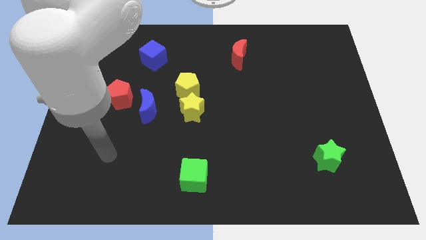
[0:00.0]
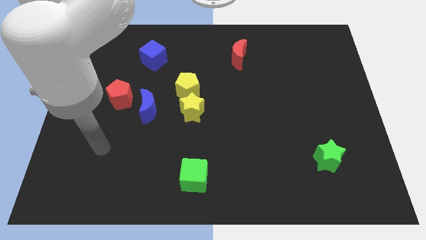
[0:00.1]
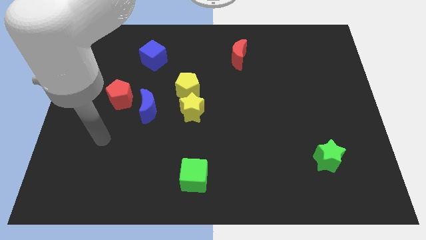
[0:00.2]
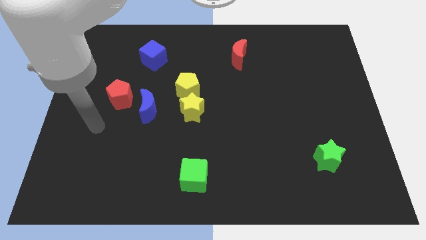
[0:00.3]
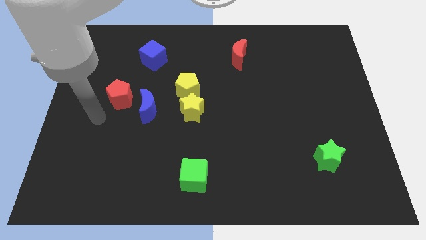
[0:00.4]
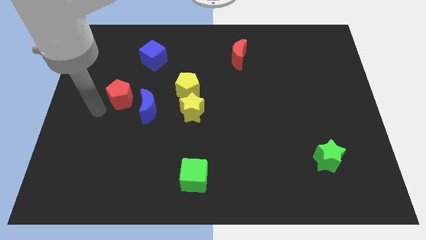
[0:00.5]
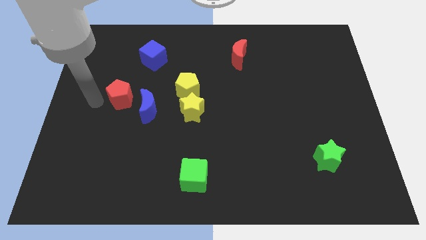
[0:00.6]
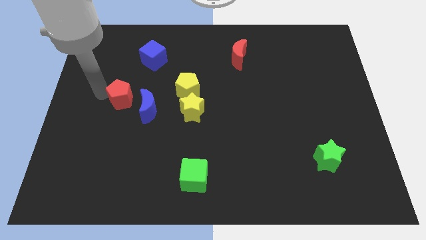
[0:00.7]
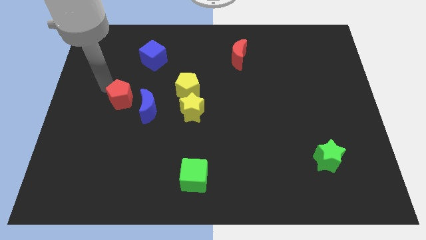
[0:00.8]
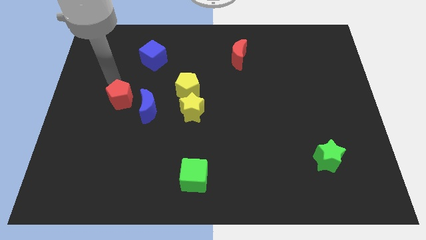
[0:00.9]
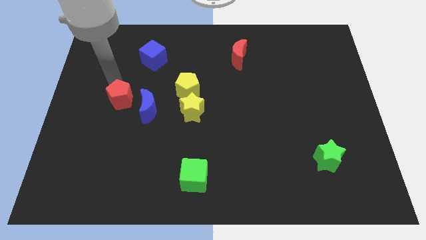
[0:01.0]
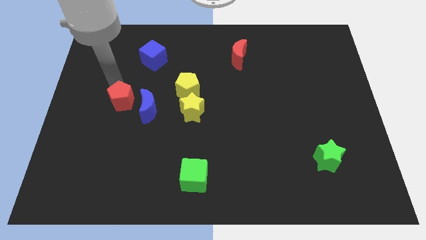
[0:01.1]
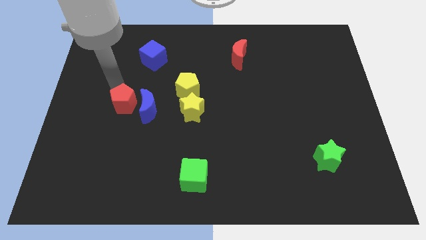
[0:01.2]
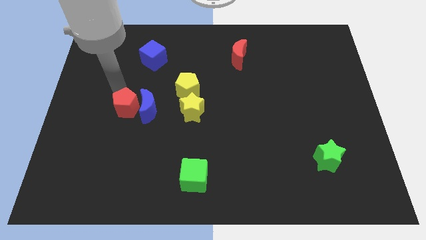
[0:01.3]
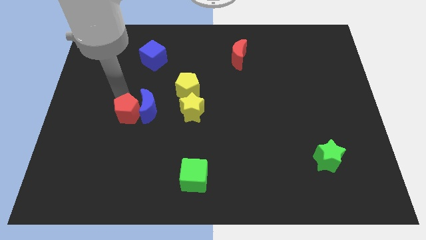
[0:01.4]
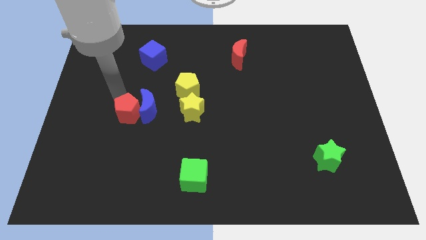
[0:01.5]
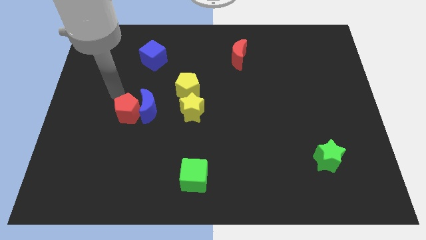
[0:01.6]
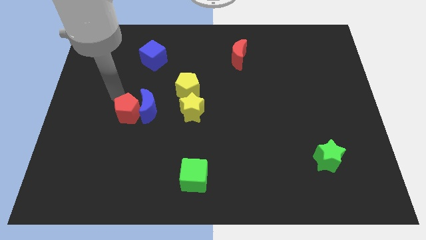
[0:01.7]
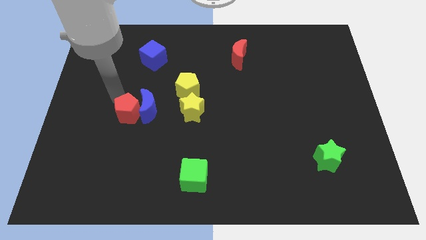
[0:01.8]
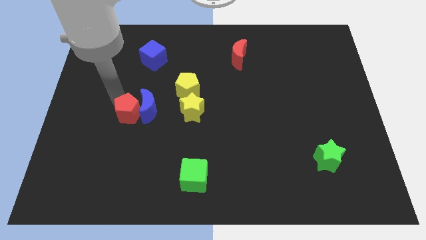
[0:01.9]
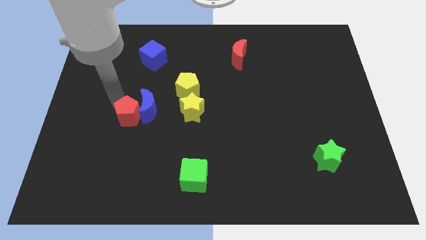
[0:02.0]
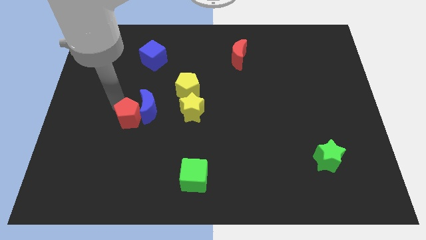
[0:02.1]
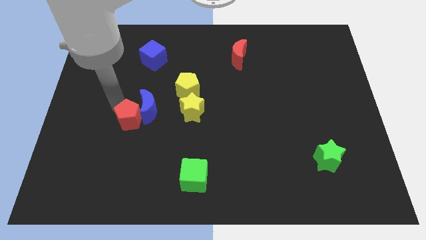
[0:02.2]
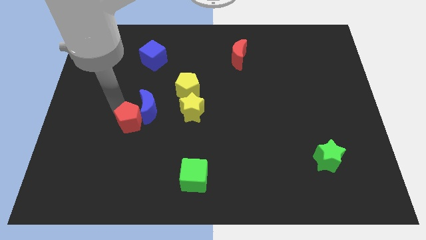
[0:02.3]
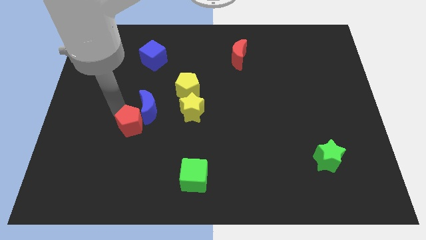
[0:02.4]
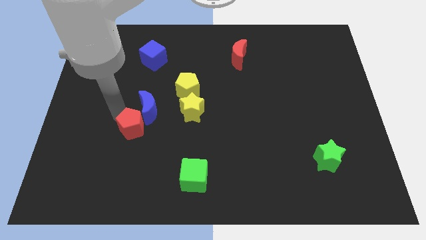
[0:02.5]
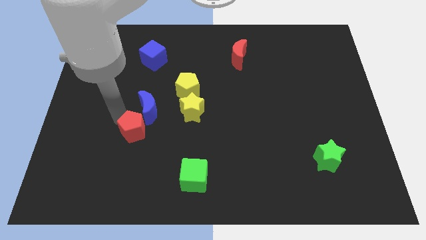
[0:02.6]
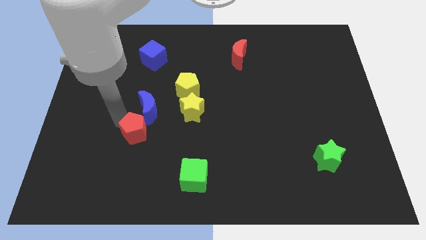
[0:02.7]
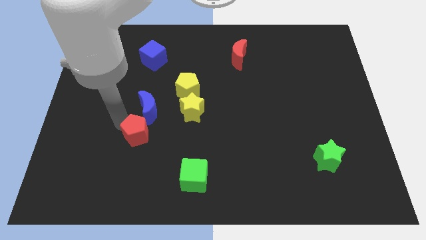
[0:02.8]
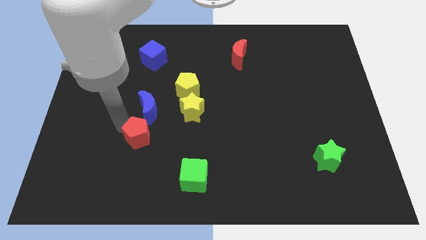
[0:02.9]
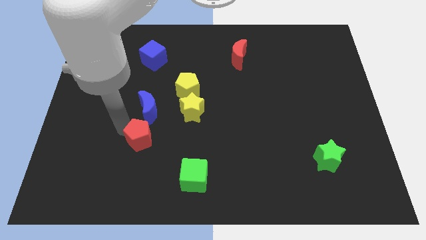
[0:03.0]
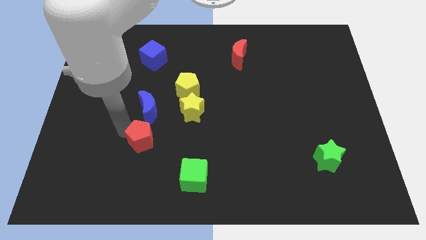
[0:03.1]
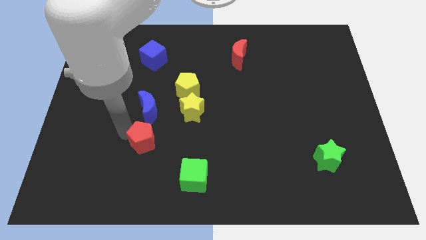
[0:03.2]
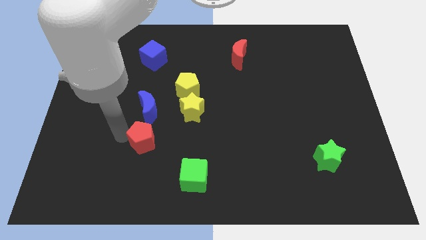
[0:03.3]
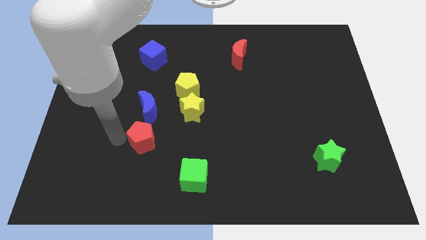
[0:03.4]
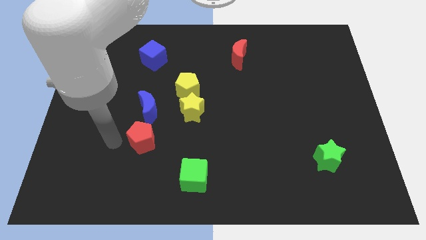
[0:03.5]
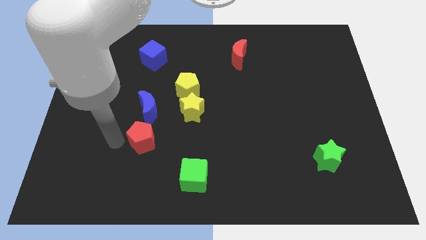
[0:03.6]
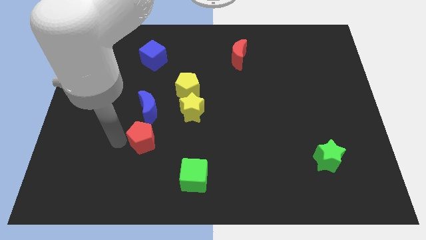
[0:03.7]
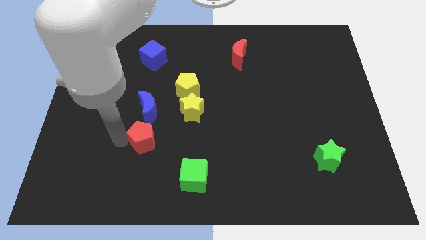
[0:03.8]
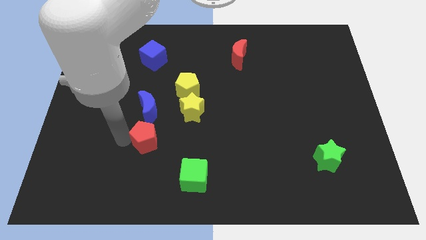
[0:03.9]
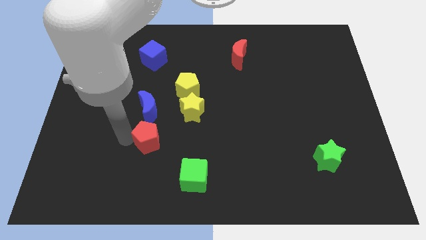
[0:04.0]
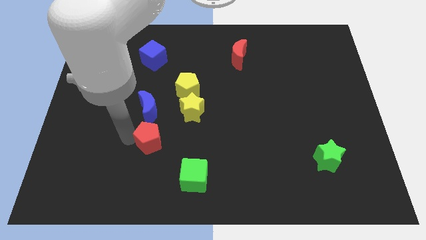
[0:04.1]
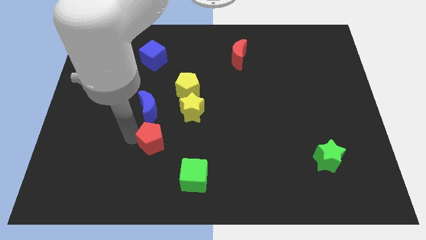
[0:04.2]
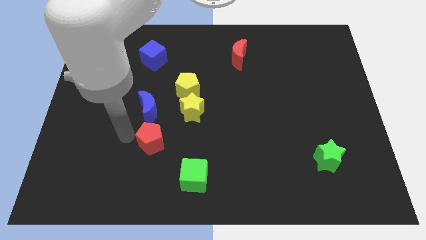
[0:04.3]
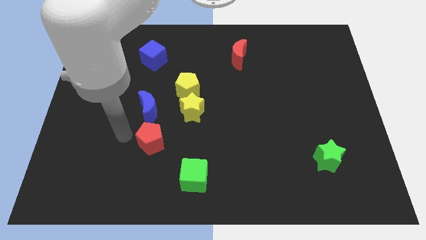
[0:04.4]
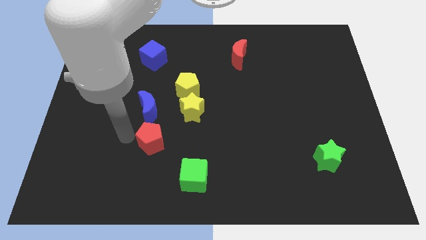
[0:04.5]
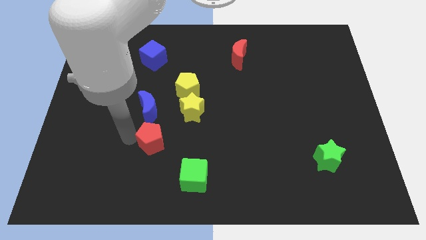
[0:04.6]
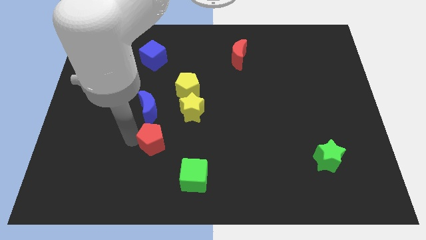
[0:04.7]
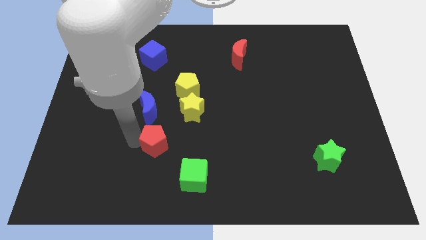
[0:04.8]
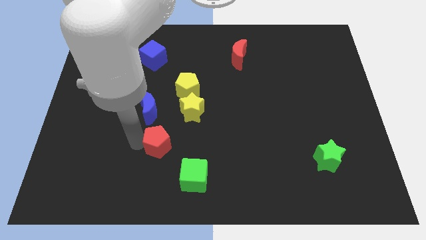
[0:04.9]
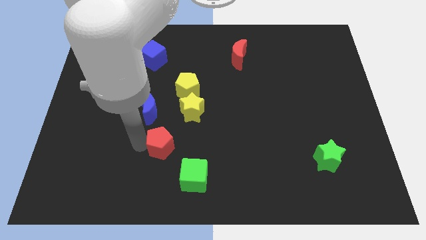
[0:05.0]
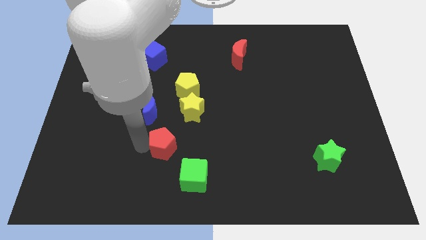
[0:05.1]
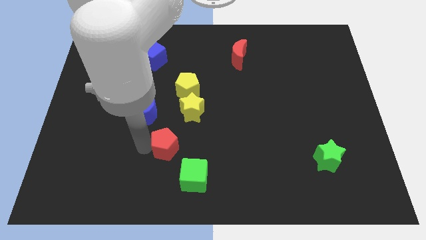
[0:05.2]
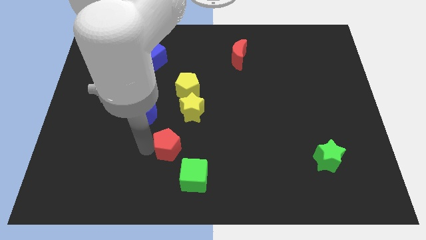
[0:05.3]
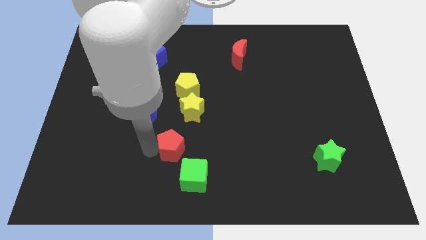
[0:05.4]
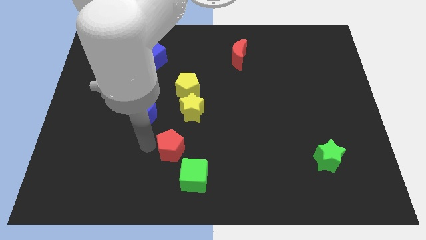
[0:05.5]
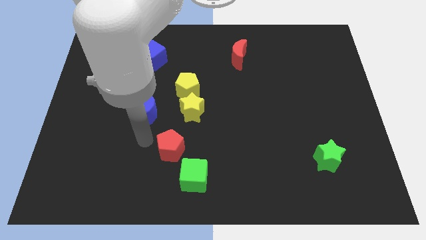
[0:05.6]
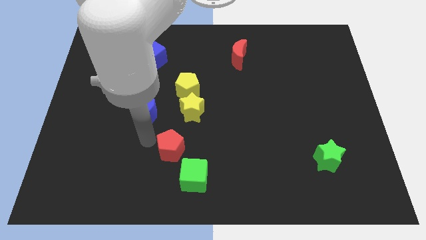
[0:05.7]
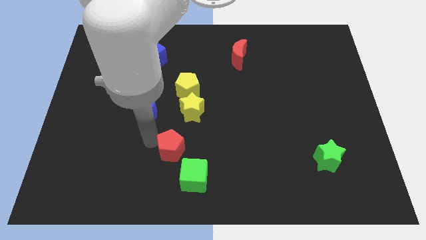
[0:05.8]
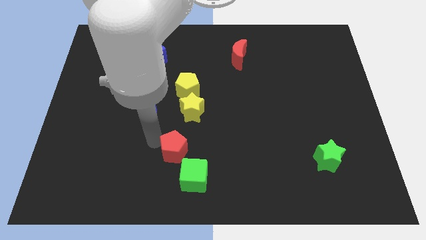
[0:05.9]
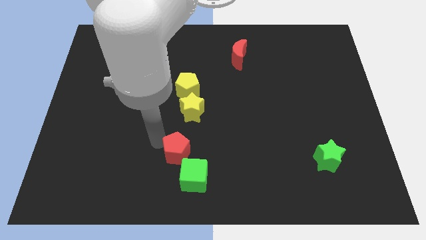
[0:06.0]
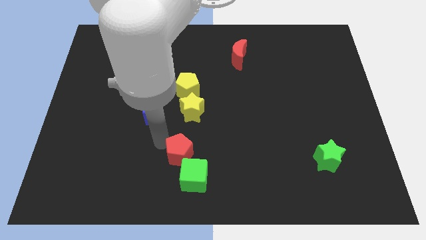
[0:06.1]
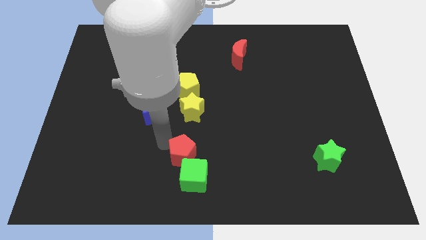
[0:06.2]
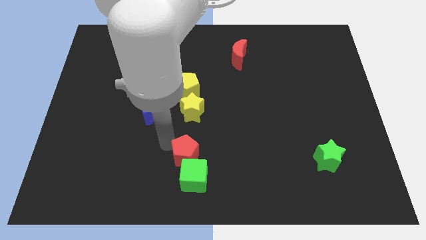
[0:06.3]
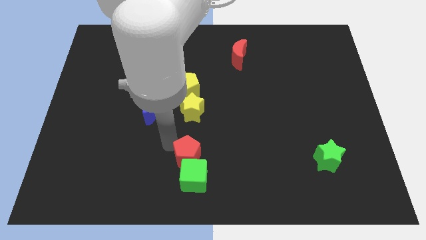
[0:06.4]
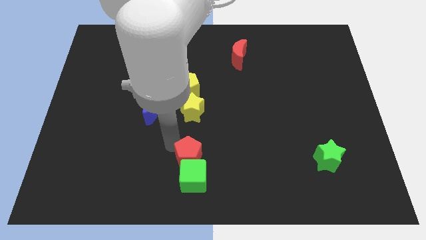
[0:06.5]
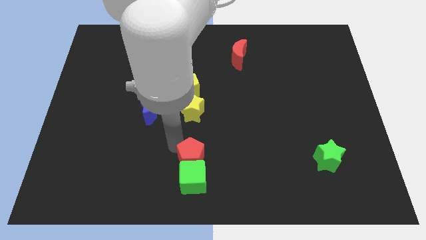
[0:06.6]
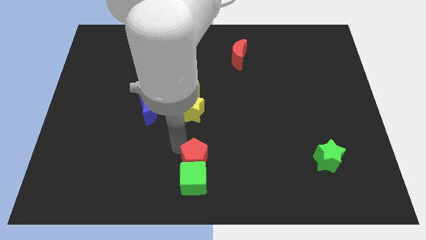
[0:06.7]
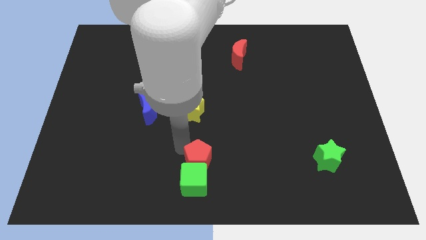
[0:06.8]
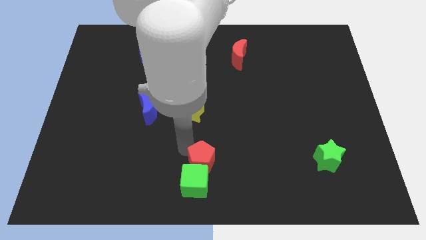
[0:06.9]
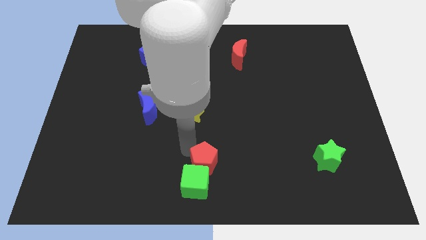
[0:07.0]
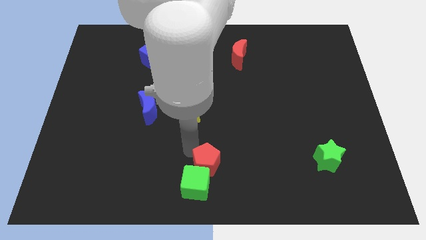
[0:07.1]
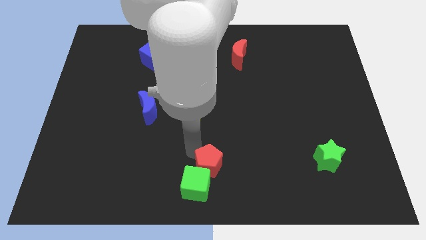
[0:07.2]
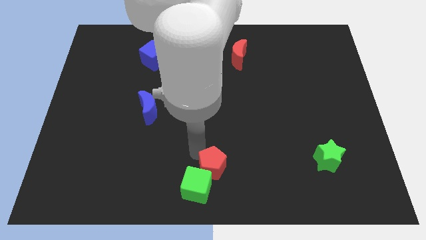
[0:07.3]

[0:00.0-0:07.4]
put the red pentagon just right of the green cube
